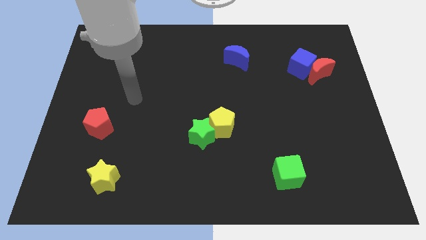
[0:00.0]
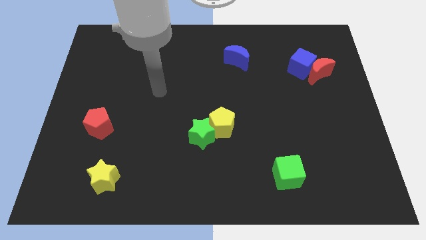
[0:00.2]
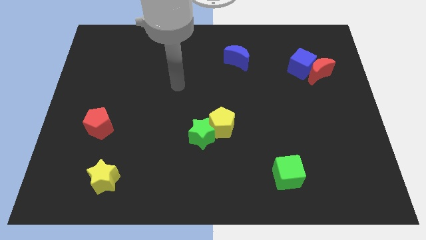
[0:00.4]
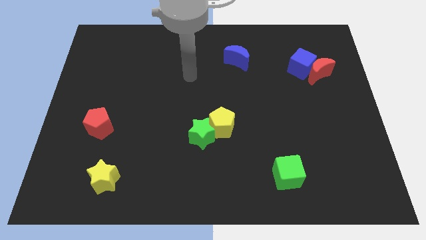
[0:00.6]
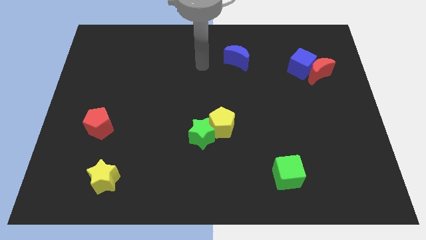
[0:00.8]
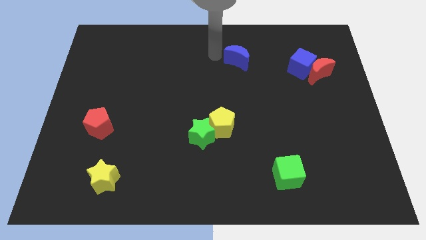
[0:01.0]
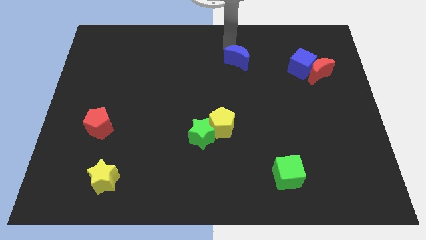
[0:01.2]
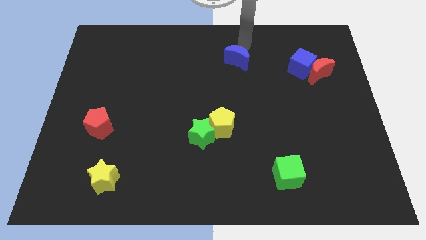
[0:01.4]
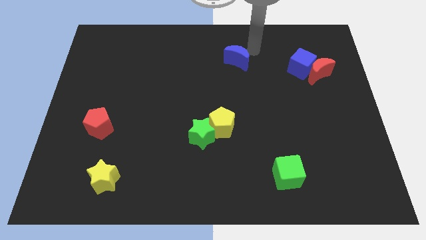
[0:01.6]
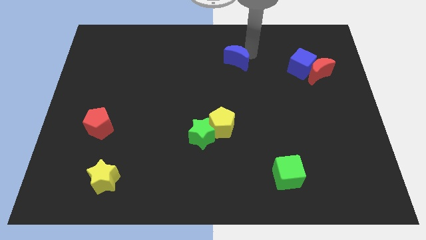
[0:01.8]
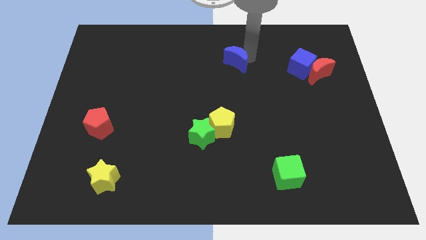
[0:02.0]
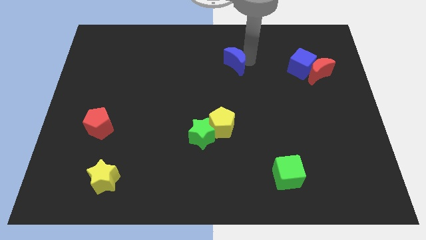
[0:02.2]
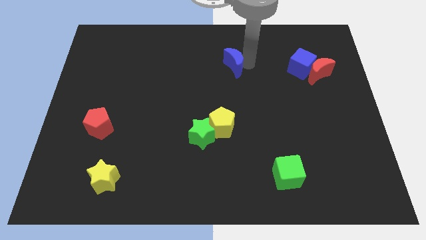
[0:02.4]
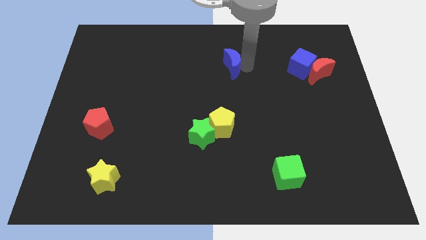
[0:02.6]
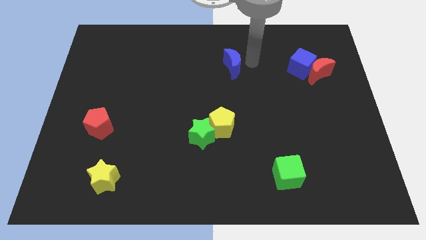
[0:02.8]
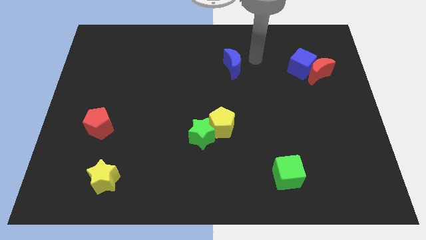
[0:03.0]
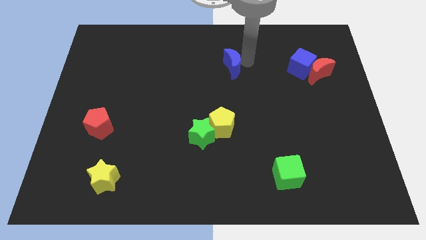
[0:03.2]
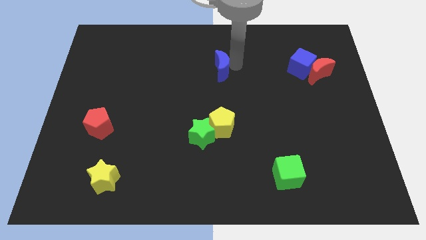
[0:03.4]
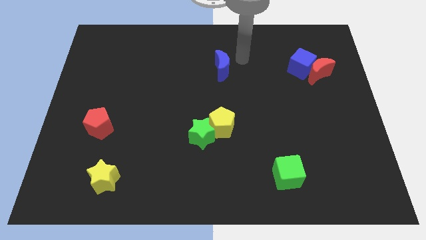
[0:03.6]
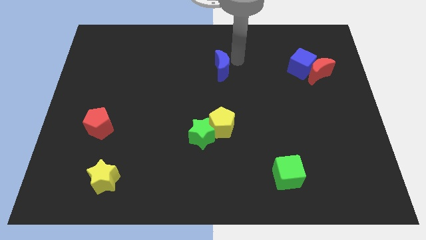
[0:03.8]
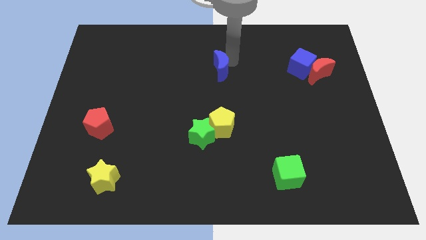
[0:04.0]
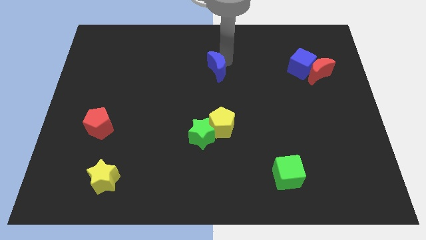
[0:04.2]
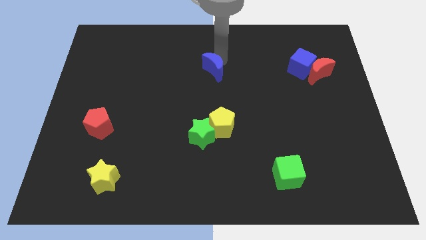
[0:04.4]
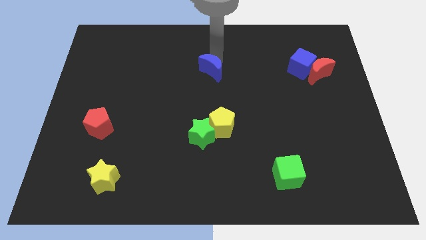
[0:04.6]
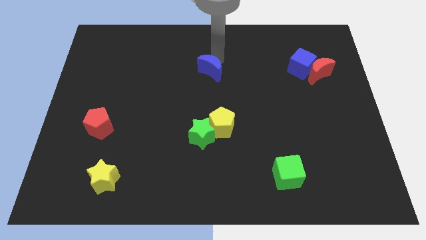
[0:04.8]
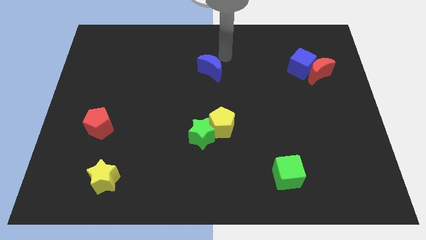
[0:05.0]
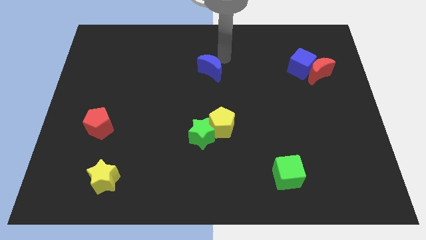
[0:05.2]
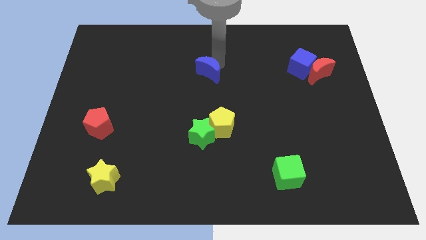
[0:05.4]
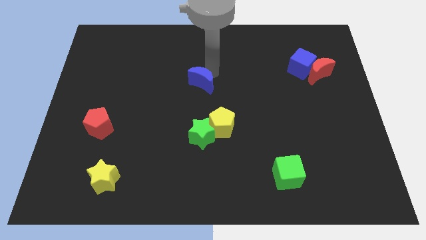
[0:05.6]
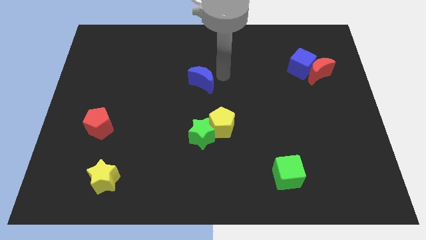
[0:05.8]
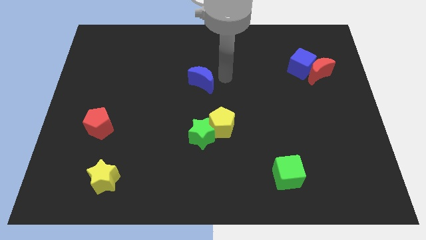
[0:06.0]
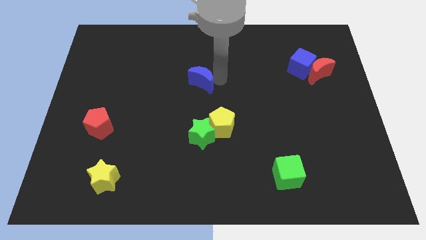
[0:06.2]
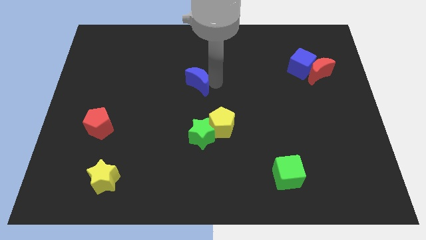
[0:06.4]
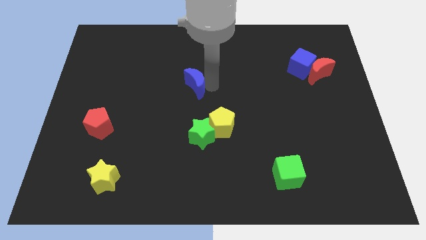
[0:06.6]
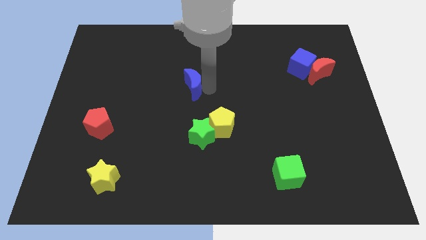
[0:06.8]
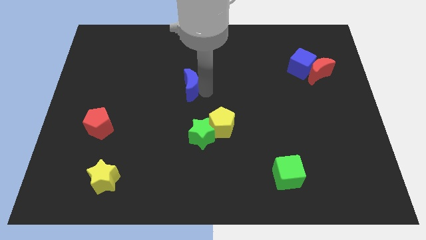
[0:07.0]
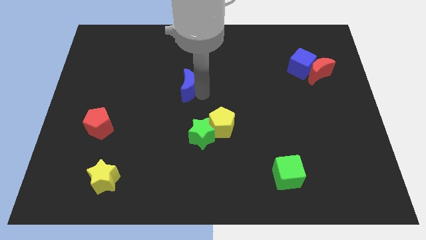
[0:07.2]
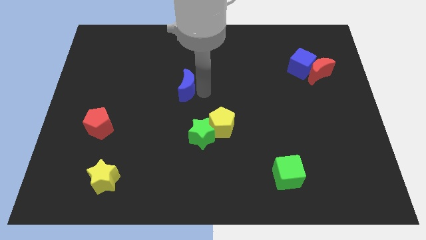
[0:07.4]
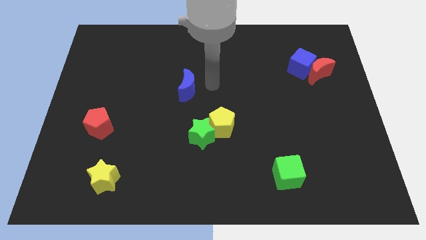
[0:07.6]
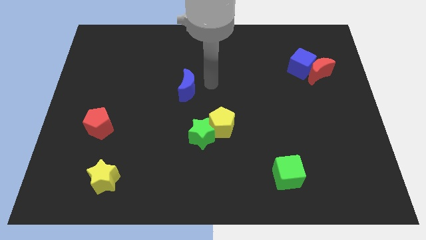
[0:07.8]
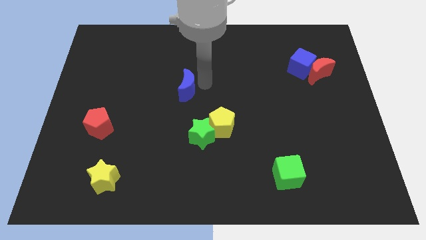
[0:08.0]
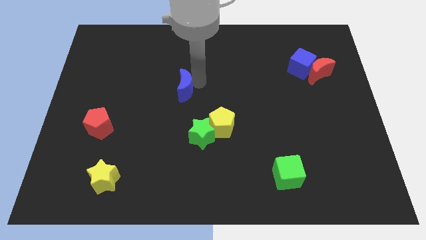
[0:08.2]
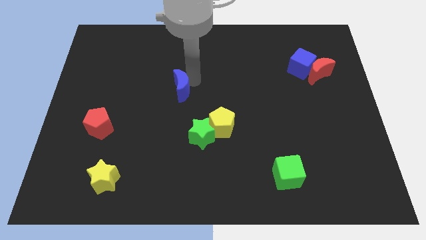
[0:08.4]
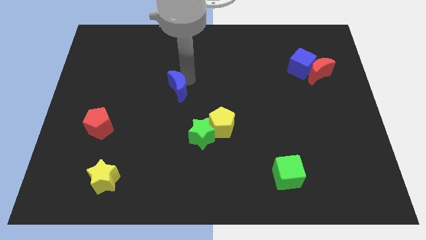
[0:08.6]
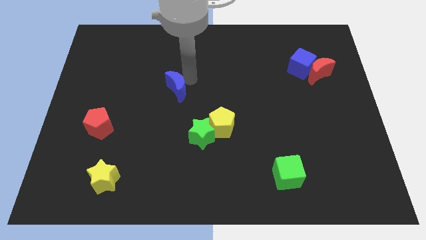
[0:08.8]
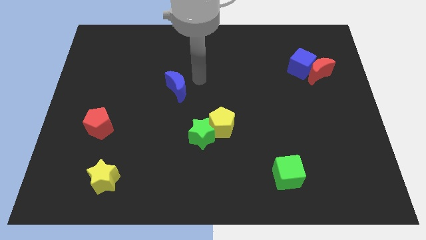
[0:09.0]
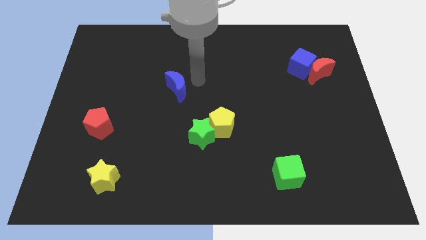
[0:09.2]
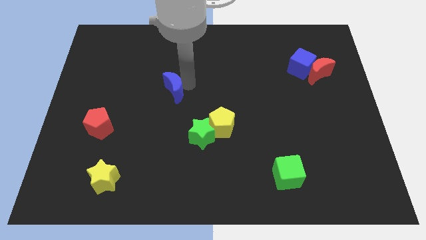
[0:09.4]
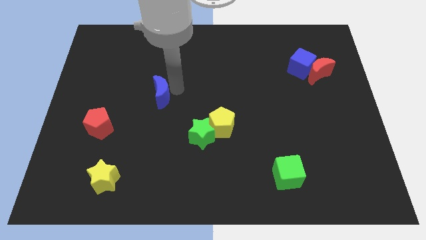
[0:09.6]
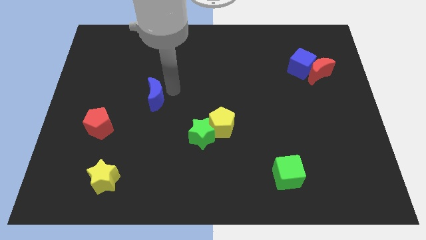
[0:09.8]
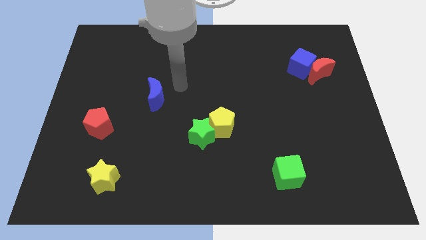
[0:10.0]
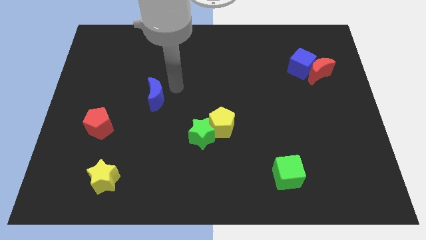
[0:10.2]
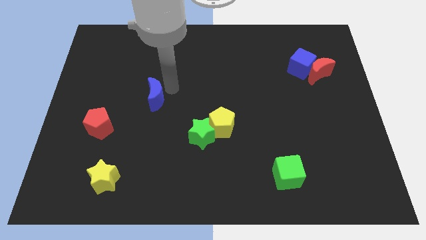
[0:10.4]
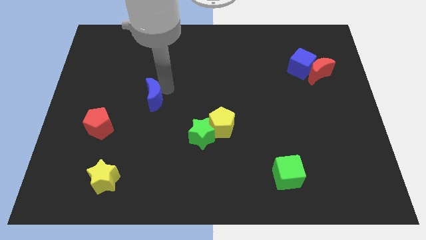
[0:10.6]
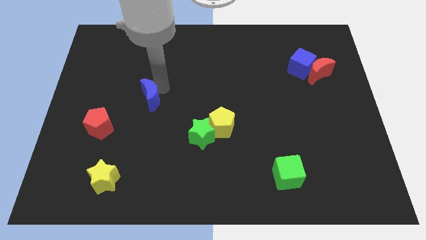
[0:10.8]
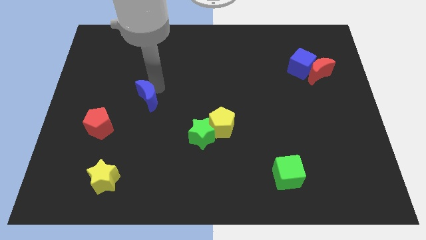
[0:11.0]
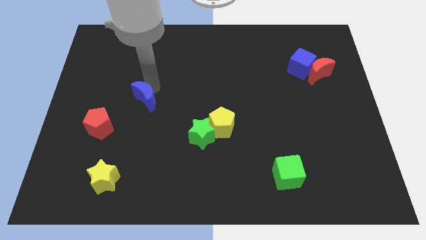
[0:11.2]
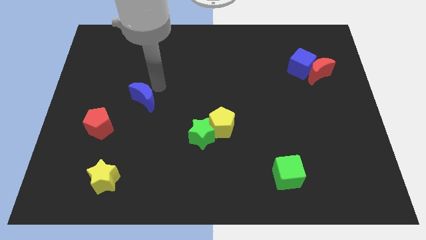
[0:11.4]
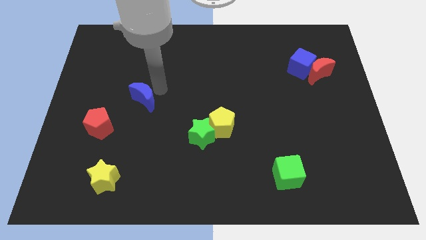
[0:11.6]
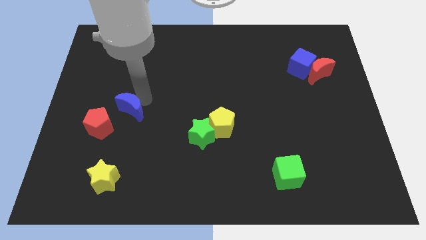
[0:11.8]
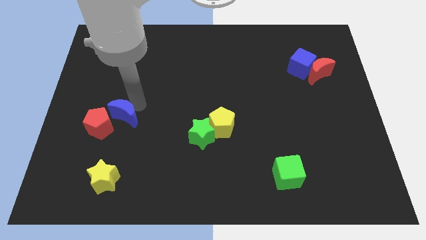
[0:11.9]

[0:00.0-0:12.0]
slide the blue moon to the red pentagon

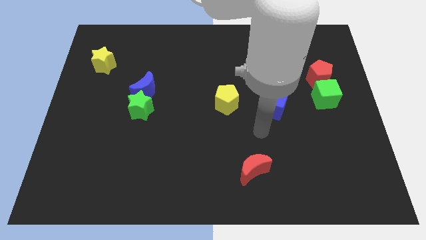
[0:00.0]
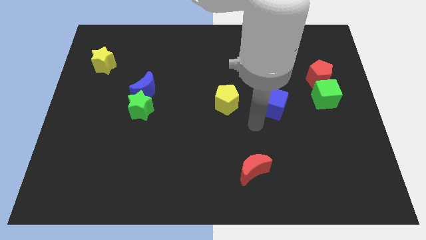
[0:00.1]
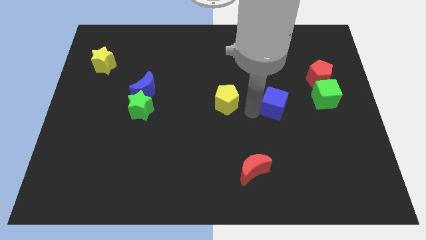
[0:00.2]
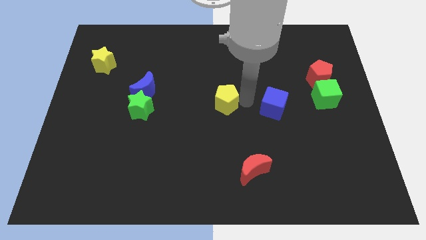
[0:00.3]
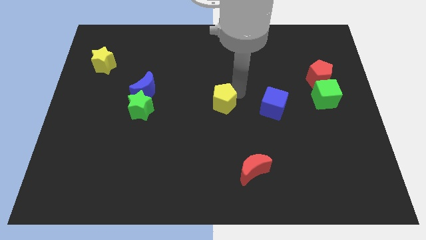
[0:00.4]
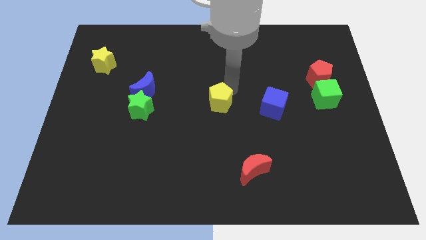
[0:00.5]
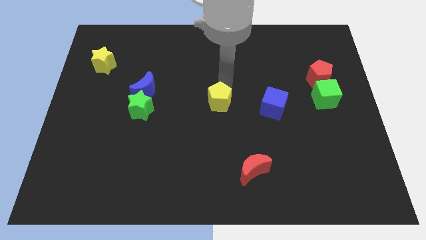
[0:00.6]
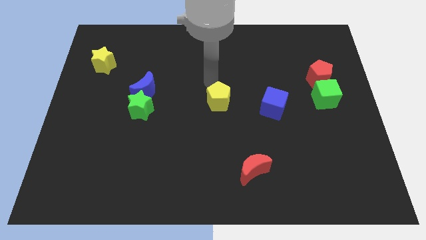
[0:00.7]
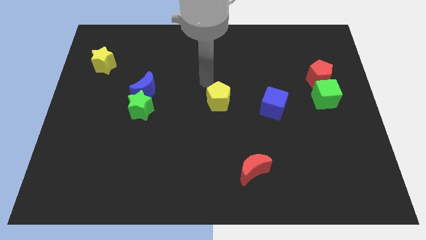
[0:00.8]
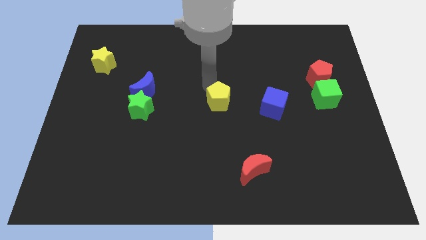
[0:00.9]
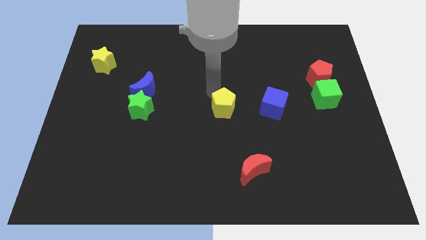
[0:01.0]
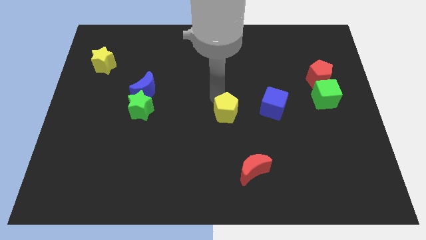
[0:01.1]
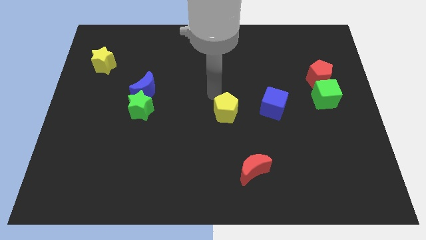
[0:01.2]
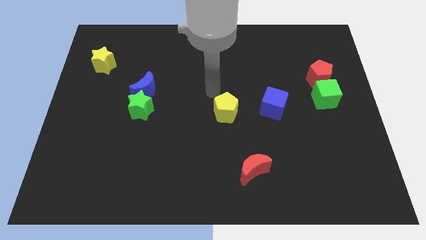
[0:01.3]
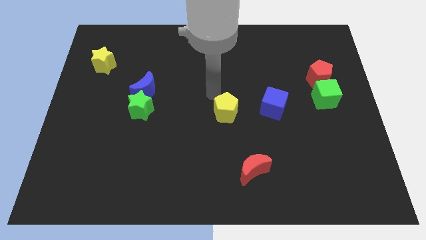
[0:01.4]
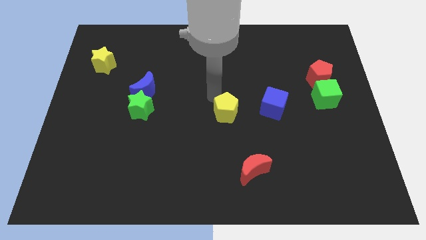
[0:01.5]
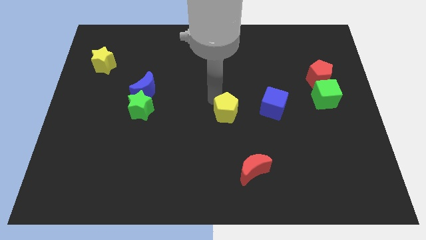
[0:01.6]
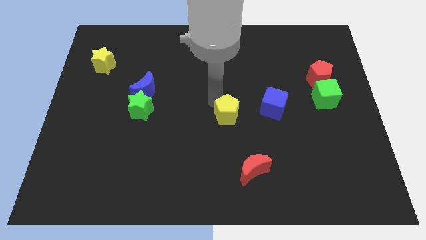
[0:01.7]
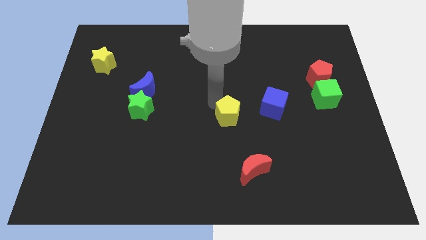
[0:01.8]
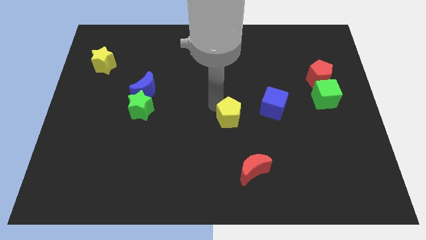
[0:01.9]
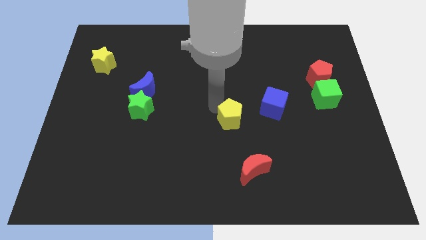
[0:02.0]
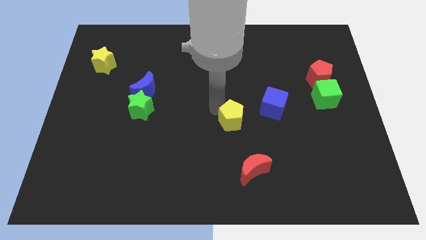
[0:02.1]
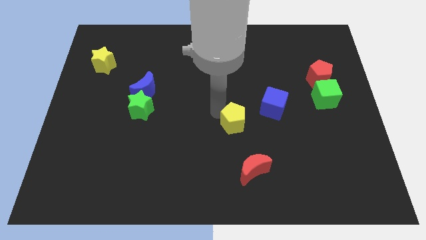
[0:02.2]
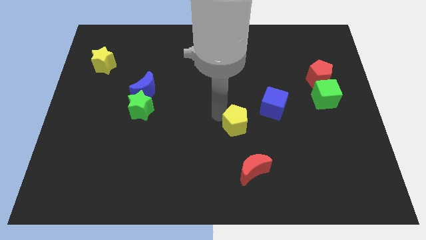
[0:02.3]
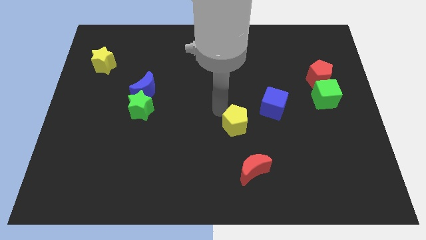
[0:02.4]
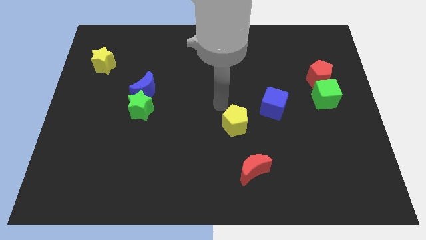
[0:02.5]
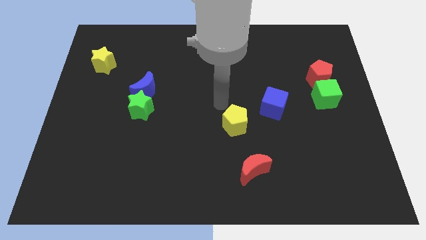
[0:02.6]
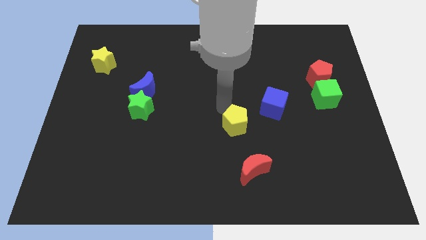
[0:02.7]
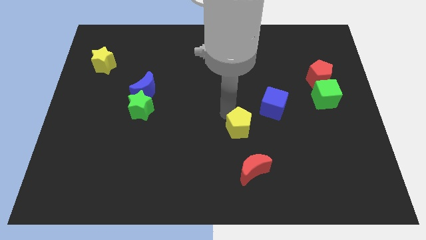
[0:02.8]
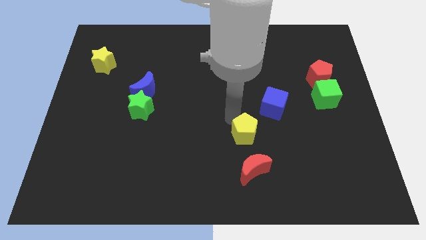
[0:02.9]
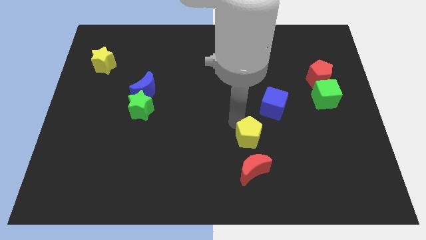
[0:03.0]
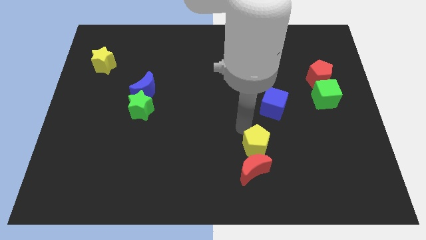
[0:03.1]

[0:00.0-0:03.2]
put the yellow pentagon to the red moon
